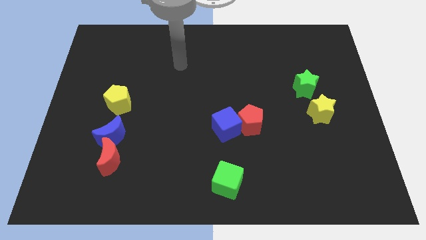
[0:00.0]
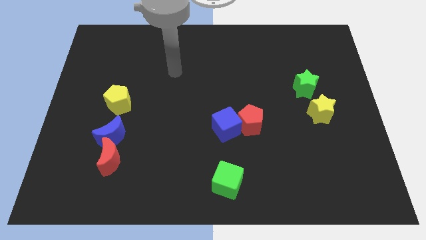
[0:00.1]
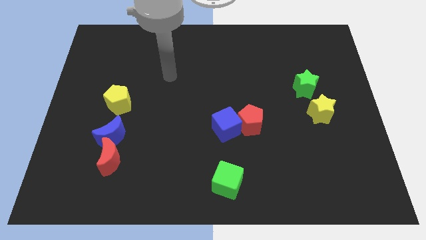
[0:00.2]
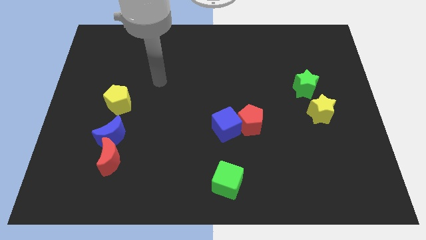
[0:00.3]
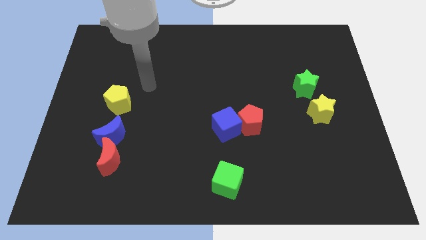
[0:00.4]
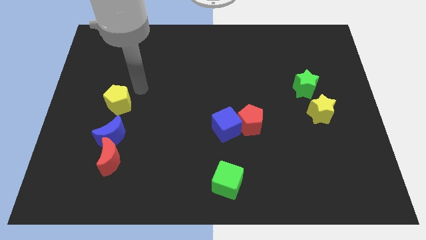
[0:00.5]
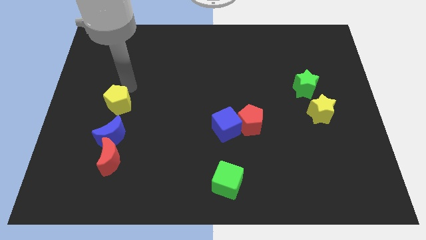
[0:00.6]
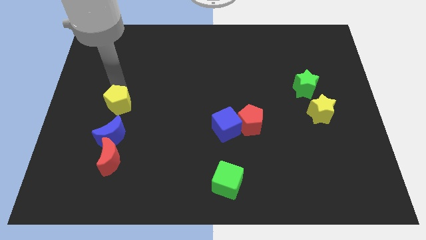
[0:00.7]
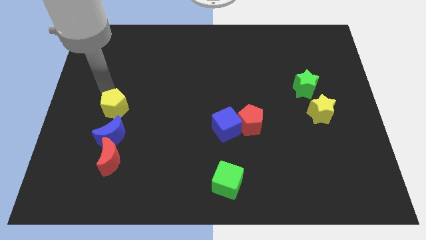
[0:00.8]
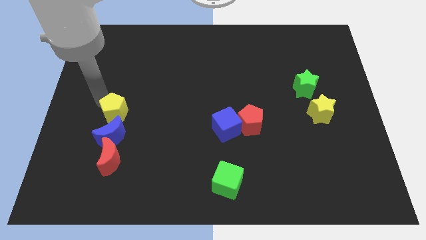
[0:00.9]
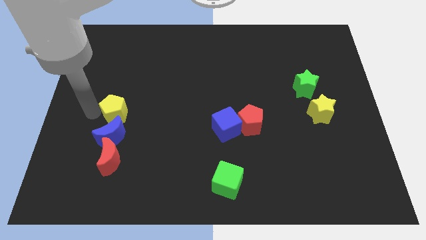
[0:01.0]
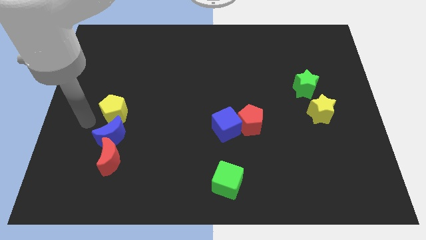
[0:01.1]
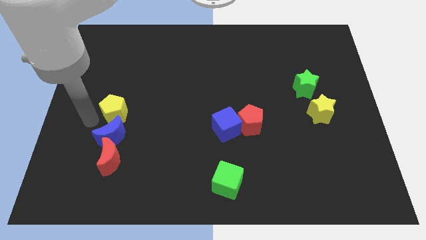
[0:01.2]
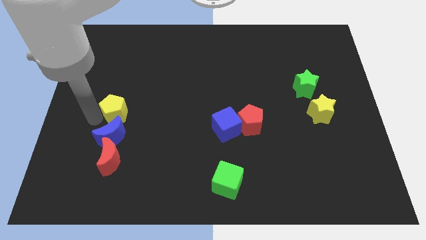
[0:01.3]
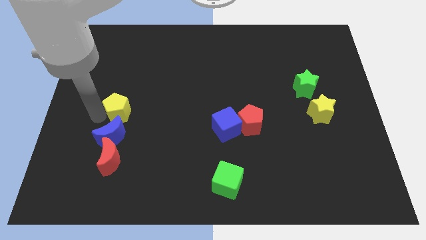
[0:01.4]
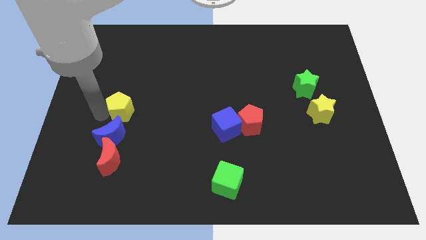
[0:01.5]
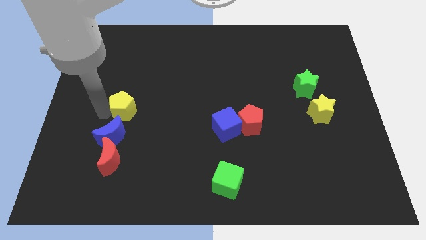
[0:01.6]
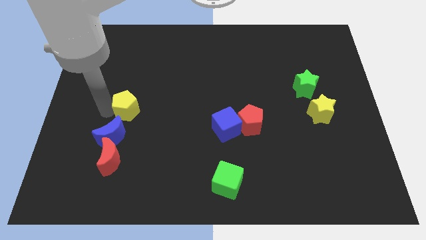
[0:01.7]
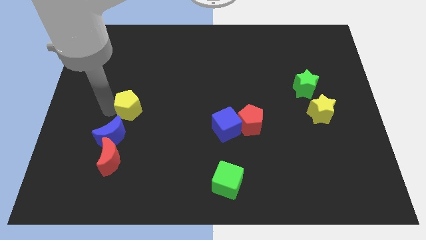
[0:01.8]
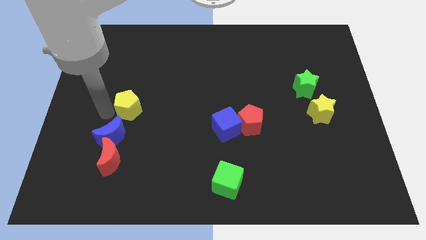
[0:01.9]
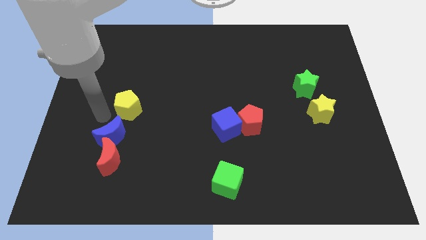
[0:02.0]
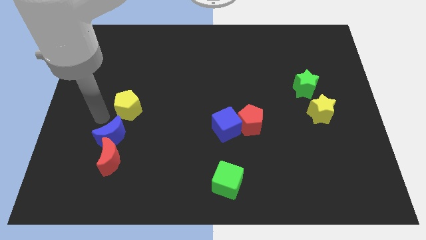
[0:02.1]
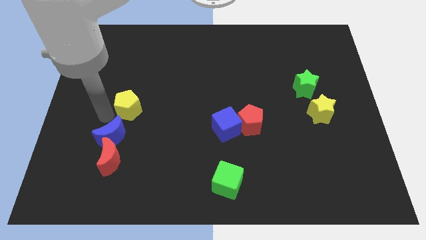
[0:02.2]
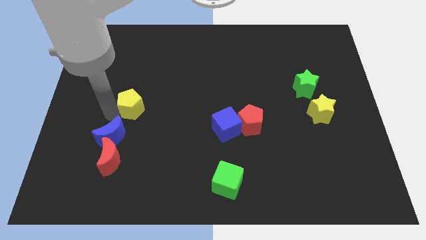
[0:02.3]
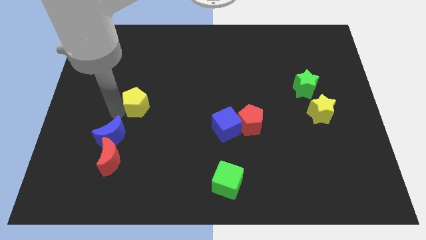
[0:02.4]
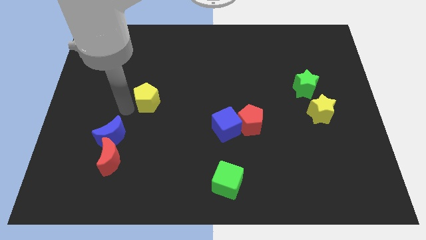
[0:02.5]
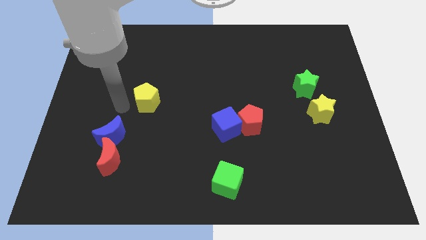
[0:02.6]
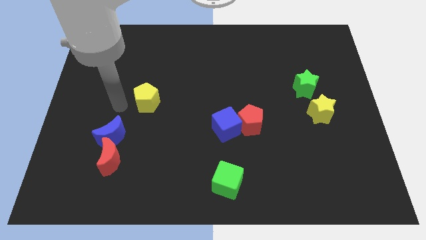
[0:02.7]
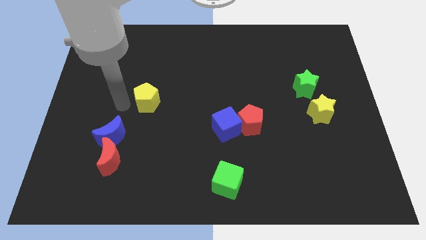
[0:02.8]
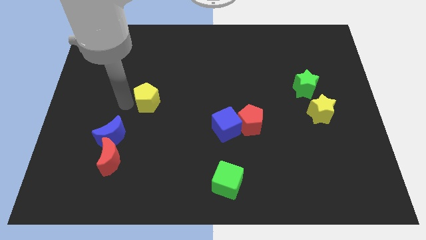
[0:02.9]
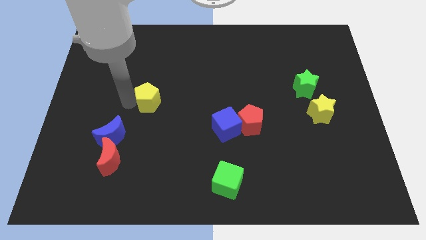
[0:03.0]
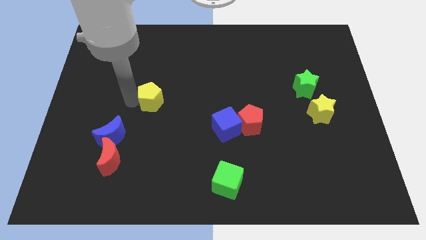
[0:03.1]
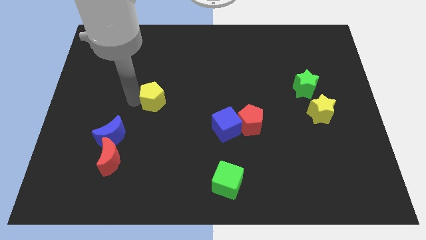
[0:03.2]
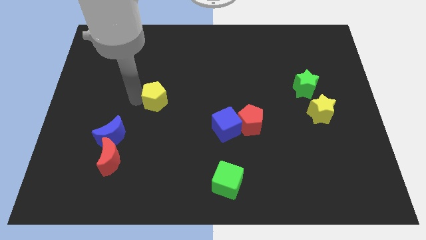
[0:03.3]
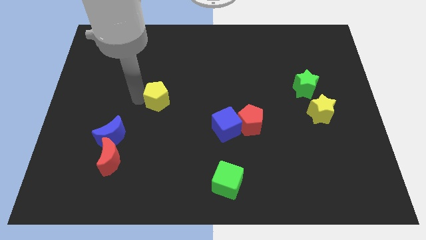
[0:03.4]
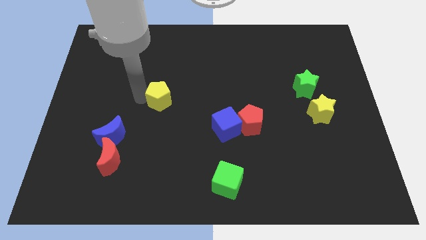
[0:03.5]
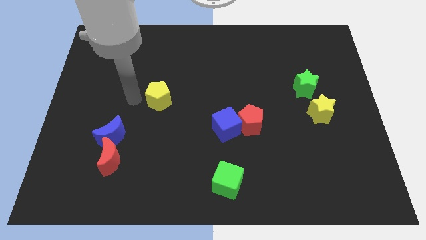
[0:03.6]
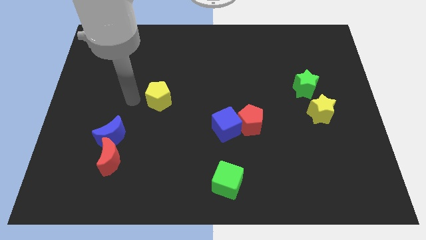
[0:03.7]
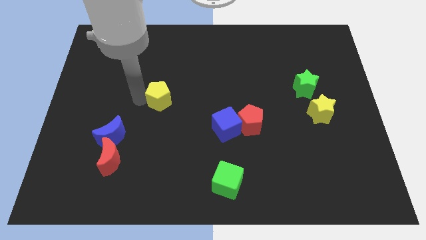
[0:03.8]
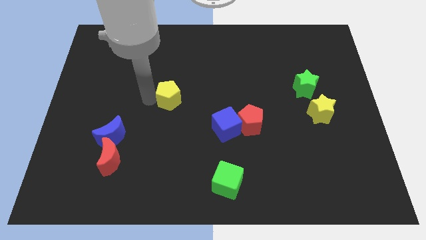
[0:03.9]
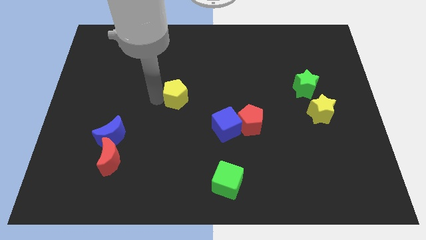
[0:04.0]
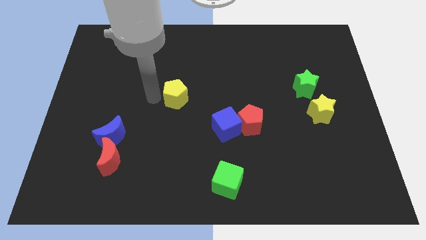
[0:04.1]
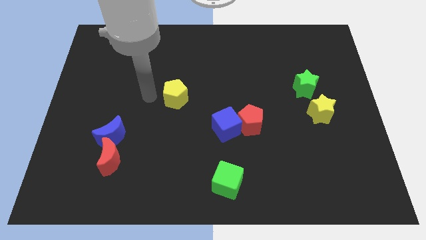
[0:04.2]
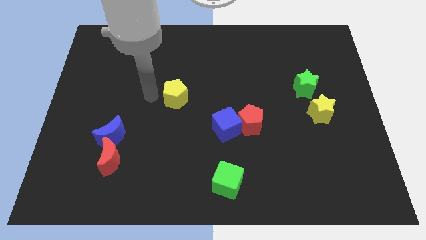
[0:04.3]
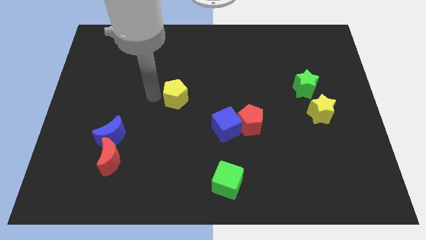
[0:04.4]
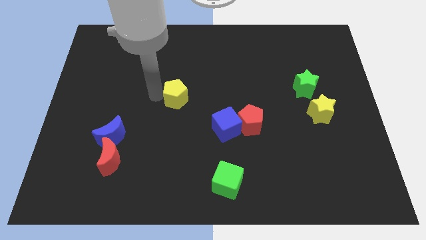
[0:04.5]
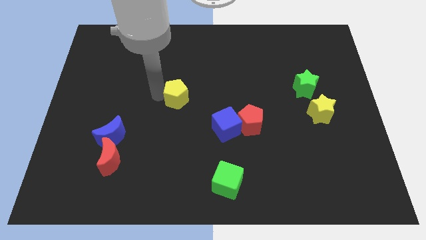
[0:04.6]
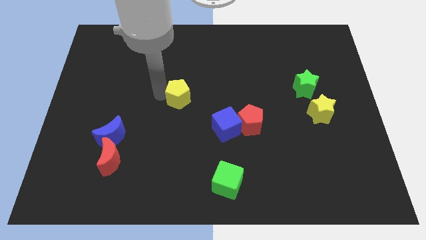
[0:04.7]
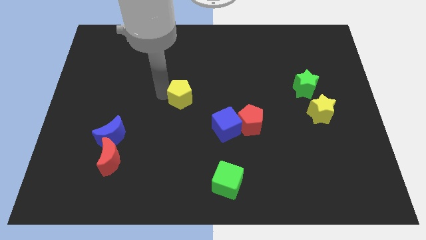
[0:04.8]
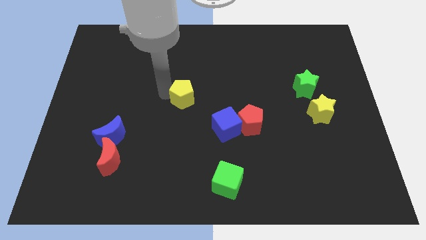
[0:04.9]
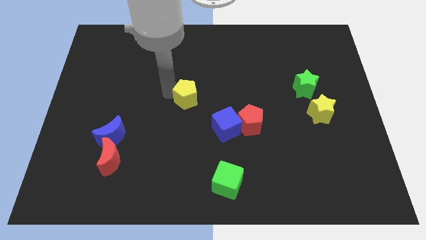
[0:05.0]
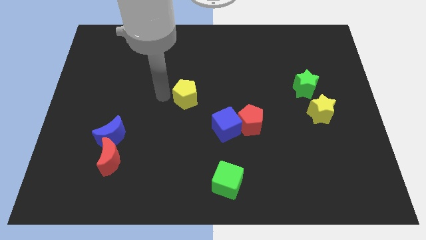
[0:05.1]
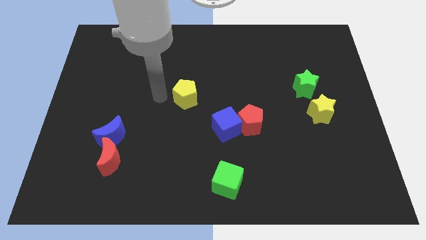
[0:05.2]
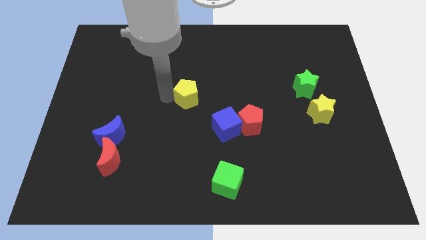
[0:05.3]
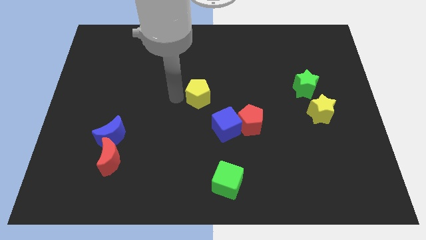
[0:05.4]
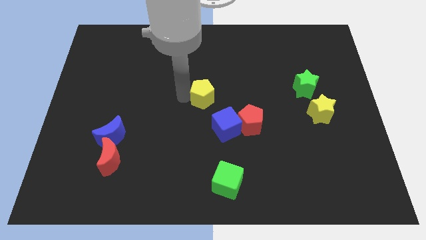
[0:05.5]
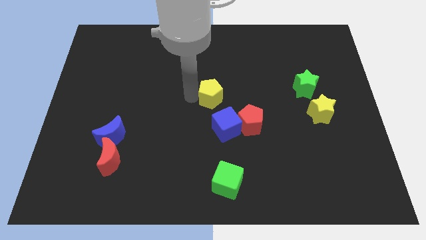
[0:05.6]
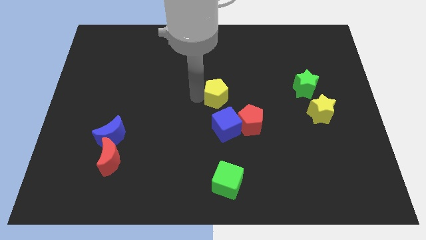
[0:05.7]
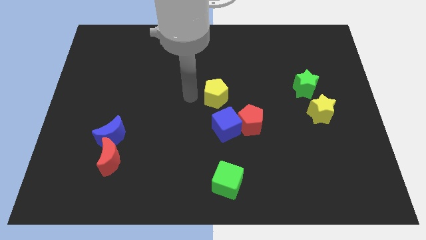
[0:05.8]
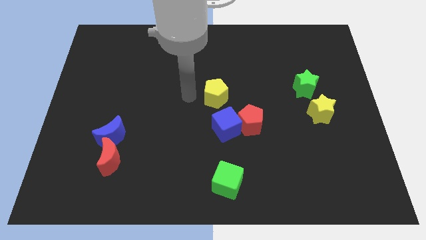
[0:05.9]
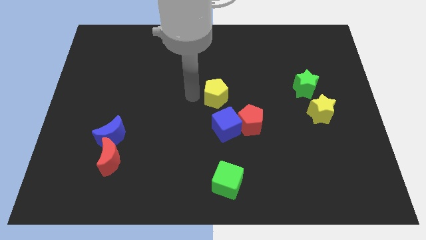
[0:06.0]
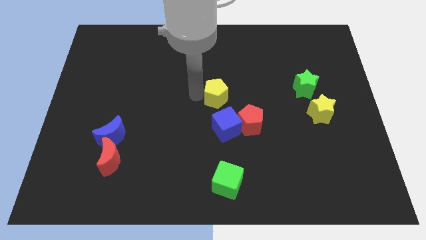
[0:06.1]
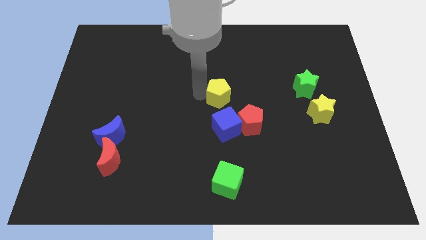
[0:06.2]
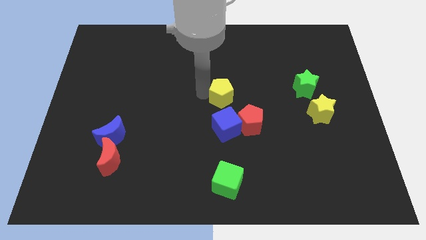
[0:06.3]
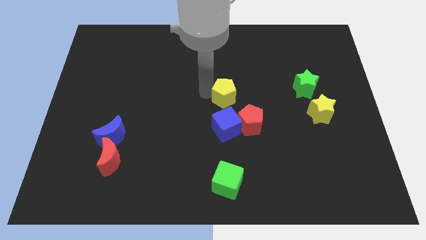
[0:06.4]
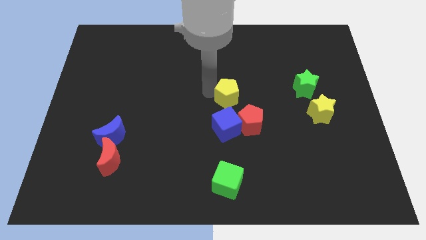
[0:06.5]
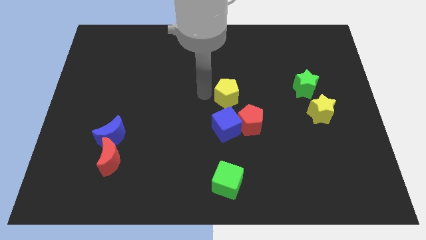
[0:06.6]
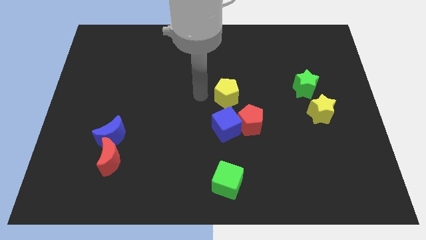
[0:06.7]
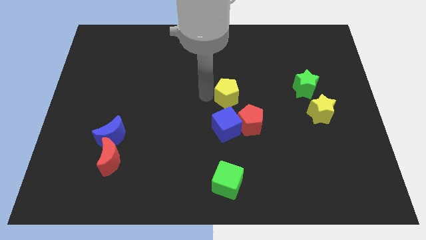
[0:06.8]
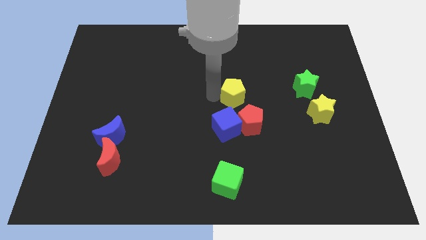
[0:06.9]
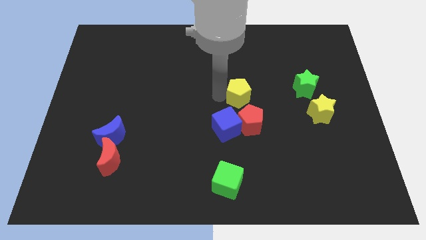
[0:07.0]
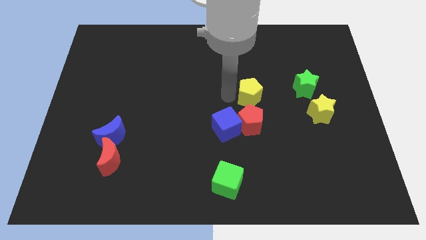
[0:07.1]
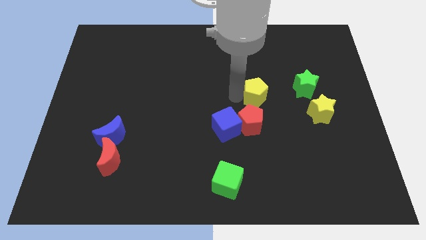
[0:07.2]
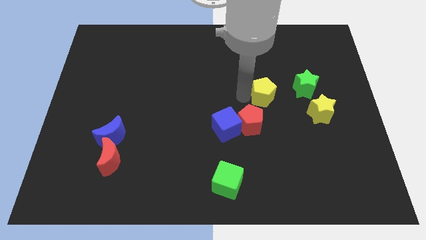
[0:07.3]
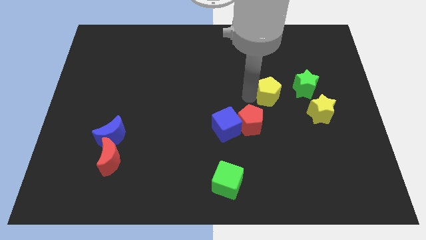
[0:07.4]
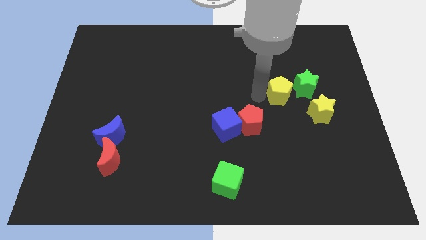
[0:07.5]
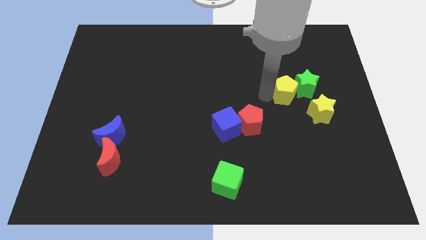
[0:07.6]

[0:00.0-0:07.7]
push the yellow pentagon towards the green star
